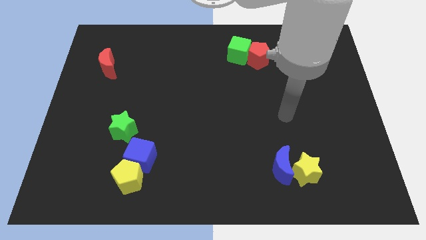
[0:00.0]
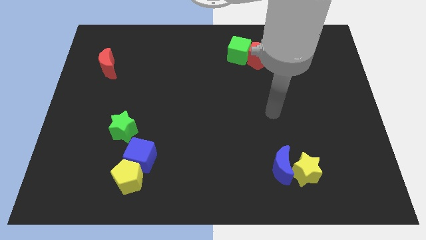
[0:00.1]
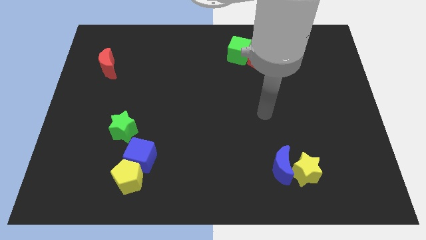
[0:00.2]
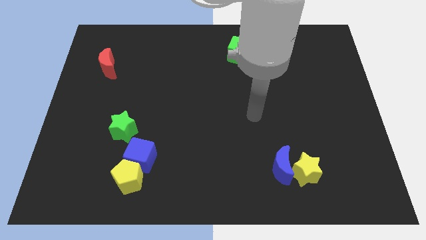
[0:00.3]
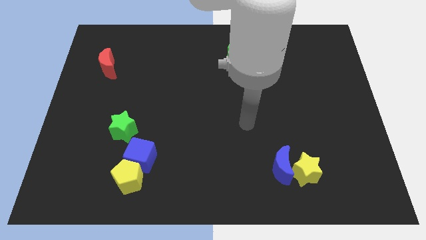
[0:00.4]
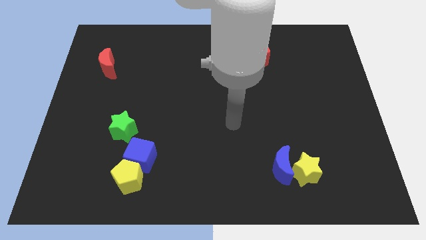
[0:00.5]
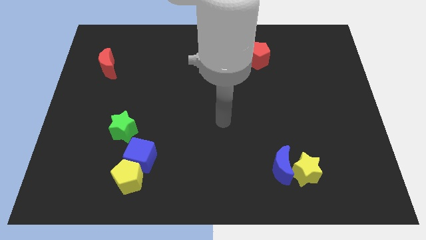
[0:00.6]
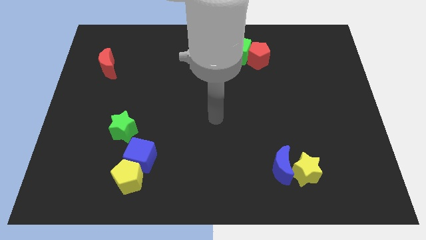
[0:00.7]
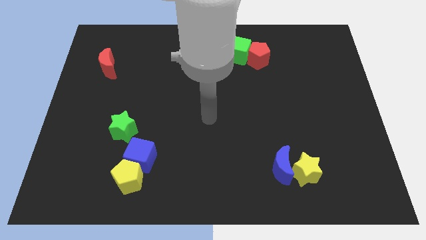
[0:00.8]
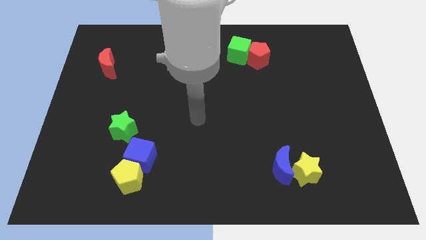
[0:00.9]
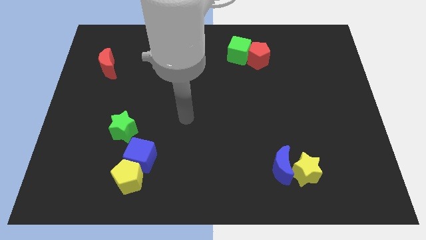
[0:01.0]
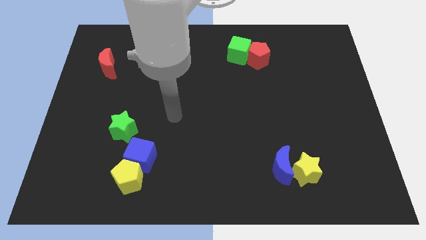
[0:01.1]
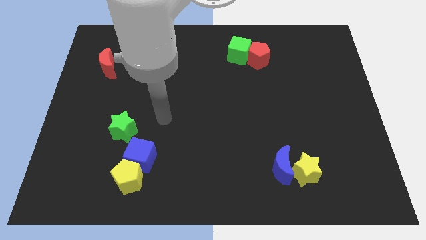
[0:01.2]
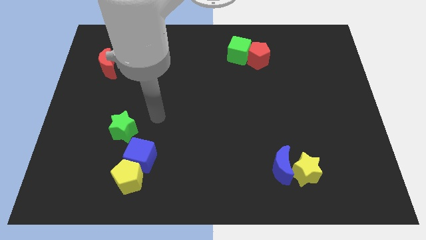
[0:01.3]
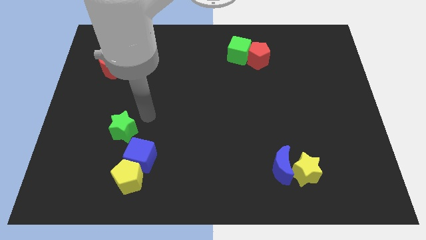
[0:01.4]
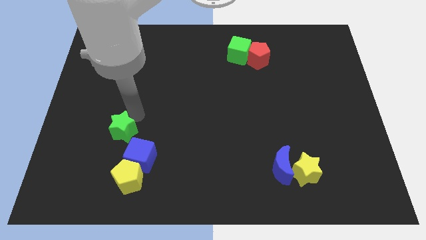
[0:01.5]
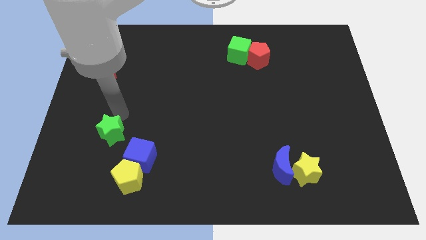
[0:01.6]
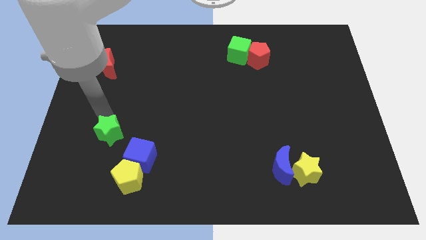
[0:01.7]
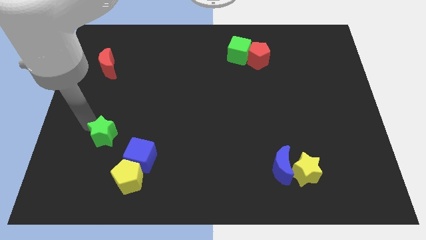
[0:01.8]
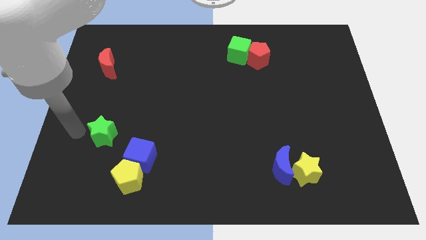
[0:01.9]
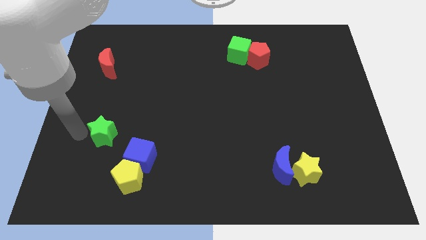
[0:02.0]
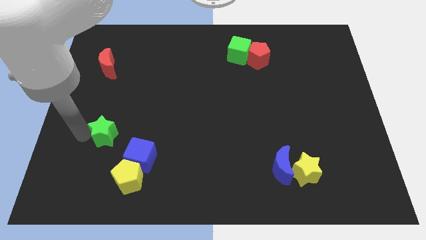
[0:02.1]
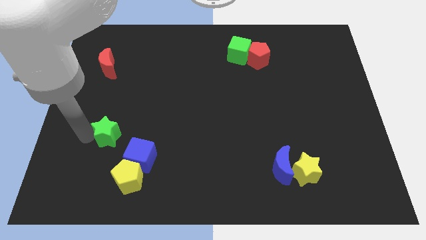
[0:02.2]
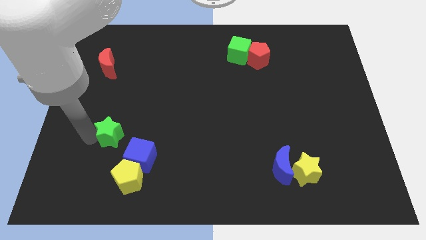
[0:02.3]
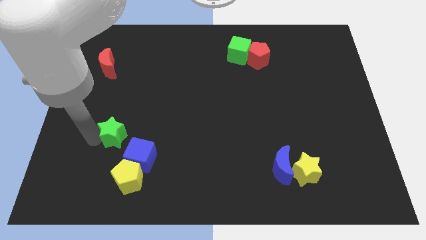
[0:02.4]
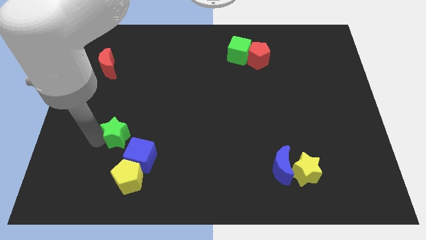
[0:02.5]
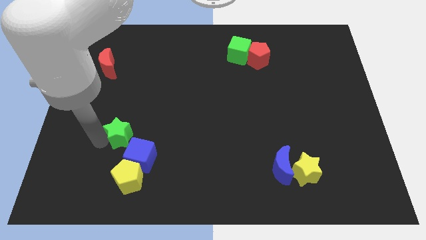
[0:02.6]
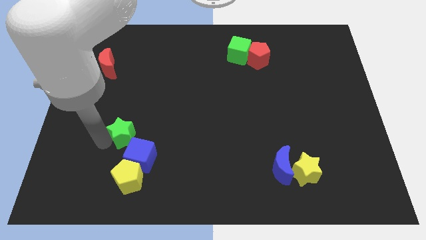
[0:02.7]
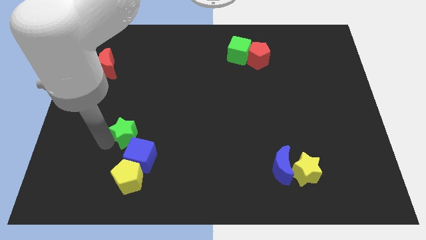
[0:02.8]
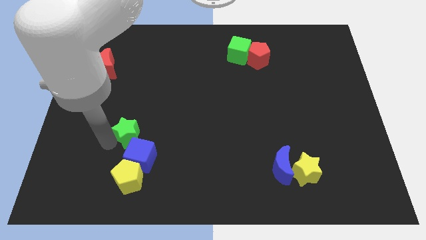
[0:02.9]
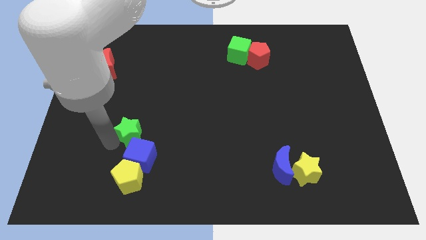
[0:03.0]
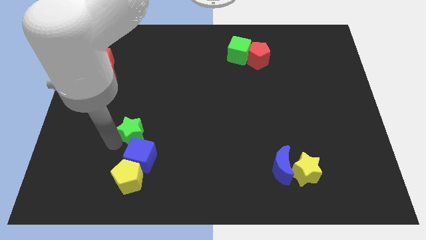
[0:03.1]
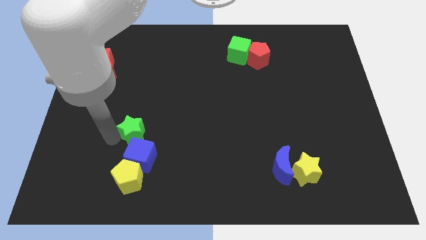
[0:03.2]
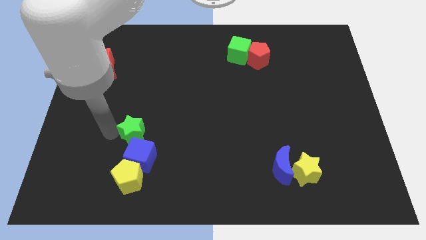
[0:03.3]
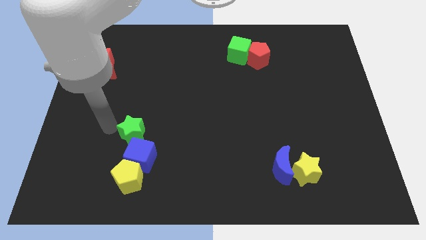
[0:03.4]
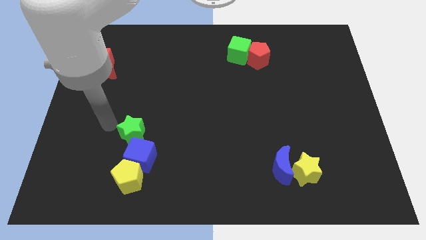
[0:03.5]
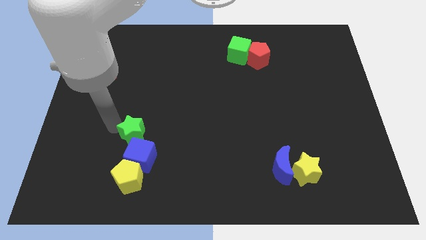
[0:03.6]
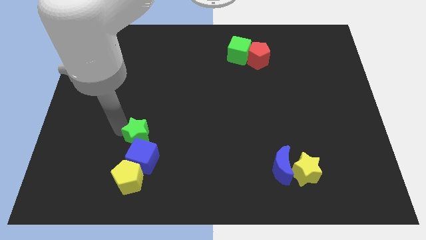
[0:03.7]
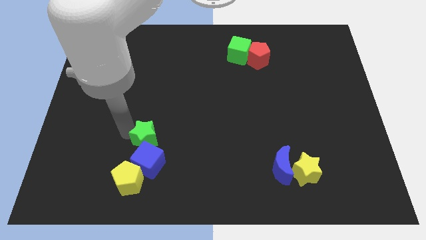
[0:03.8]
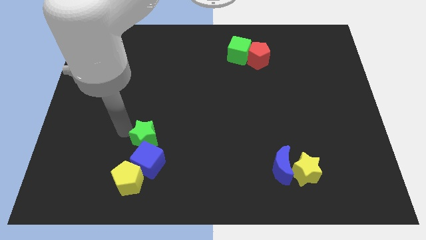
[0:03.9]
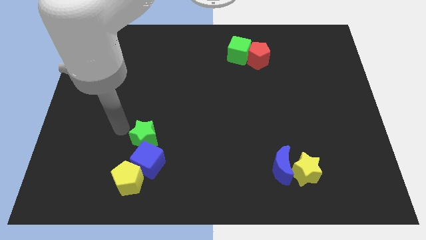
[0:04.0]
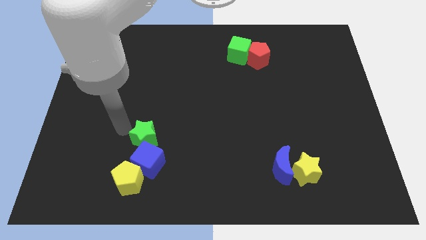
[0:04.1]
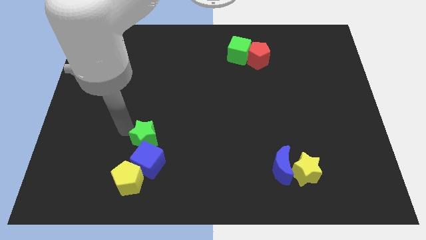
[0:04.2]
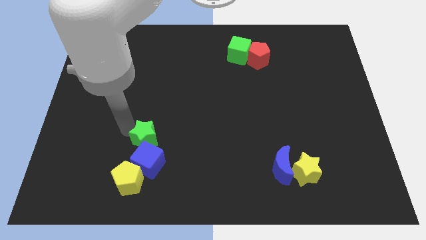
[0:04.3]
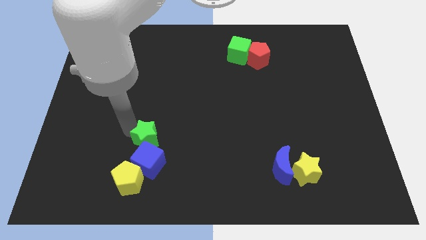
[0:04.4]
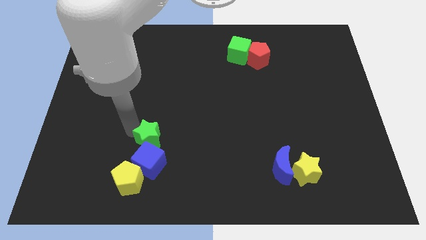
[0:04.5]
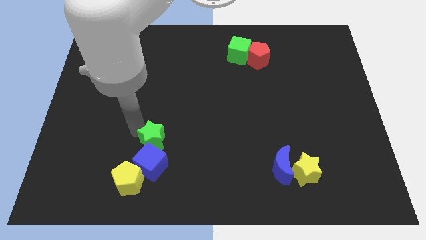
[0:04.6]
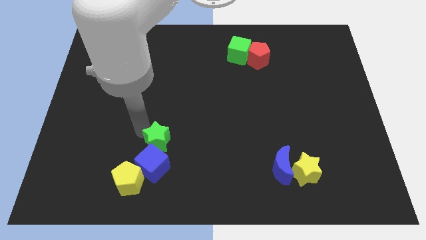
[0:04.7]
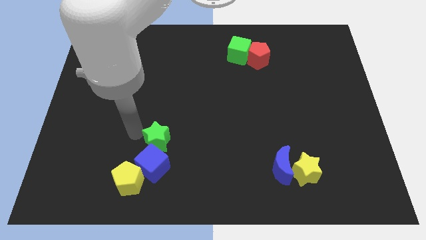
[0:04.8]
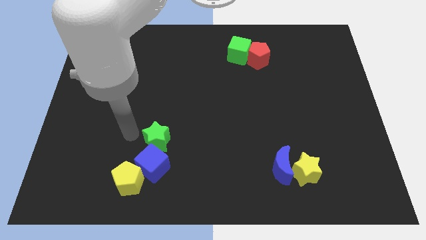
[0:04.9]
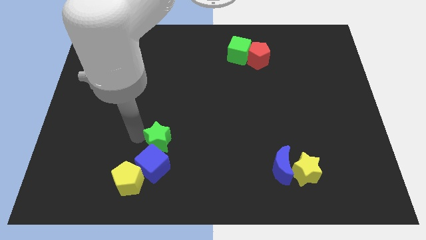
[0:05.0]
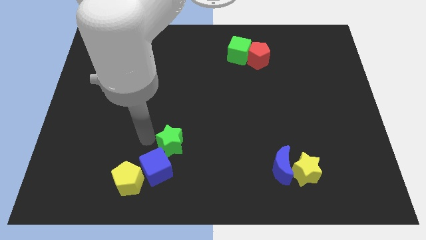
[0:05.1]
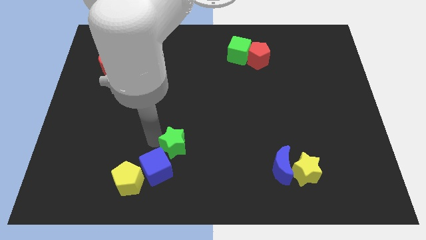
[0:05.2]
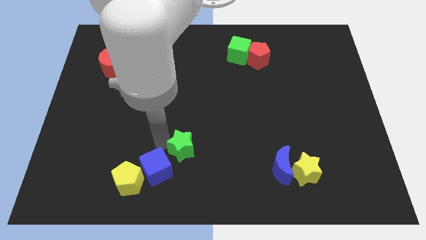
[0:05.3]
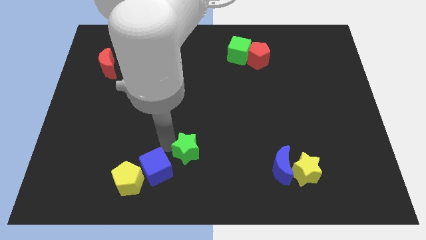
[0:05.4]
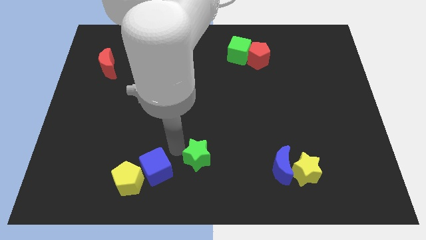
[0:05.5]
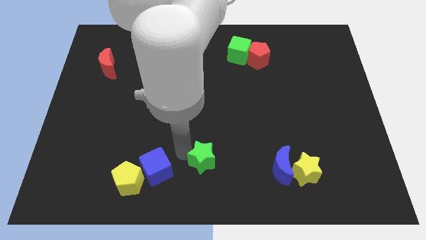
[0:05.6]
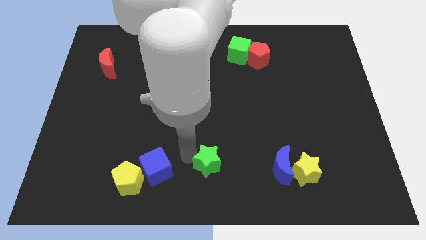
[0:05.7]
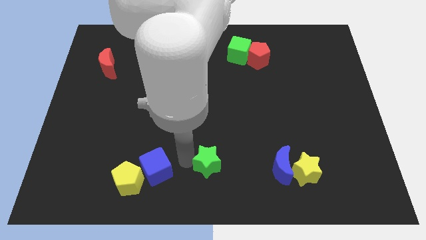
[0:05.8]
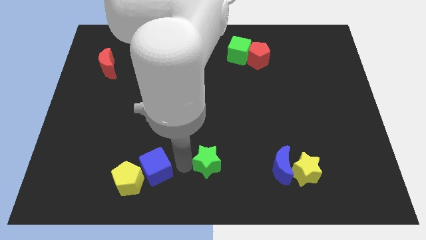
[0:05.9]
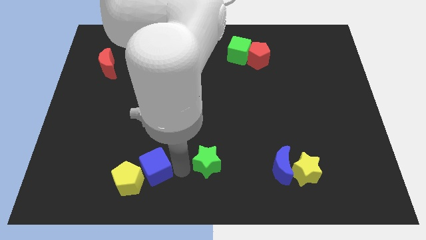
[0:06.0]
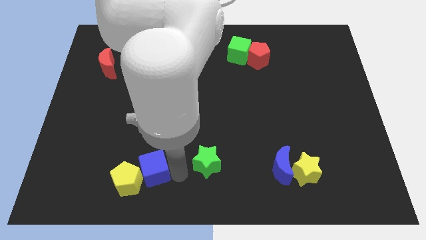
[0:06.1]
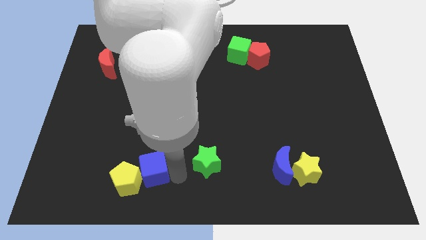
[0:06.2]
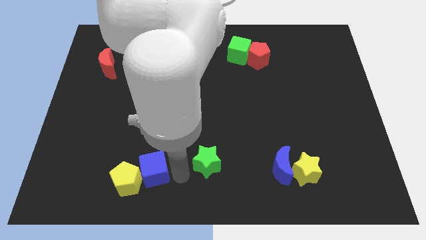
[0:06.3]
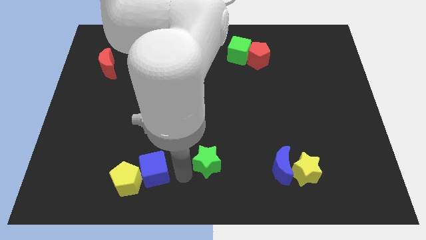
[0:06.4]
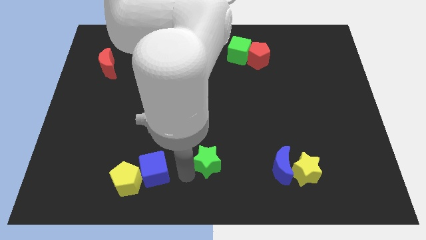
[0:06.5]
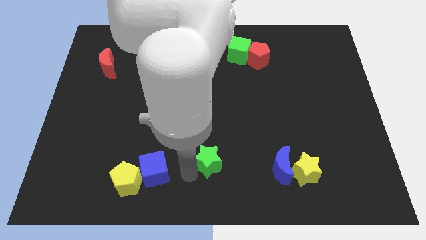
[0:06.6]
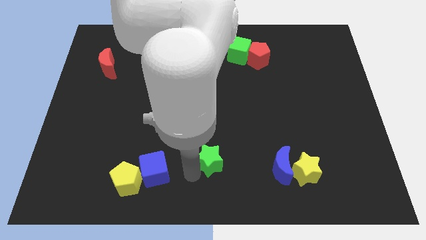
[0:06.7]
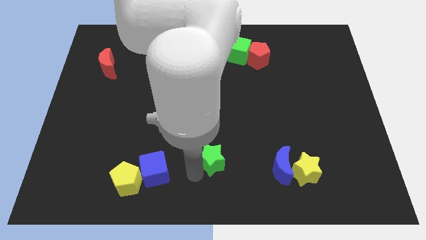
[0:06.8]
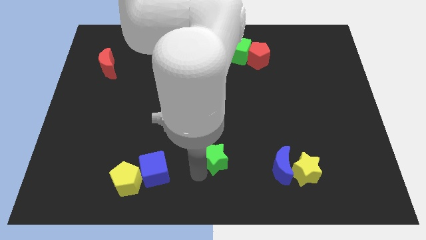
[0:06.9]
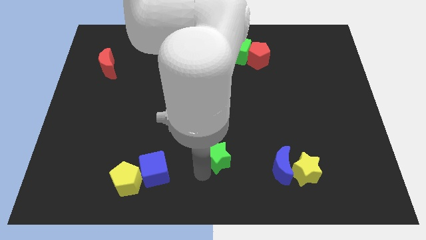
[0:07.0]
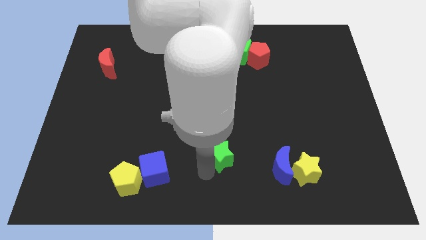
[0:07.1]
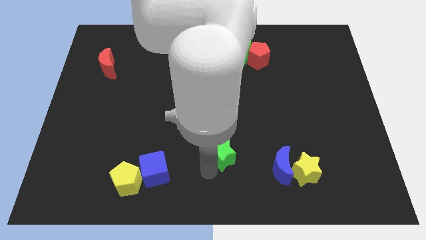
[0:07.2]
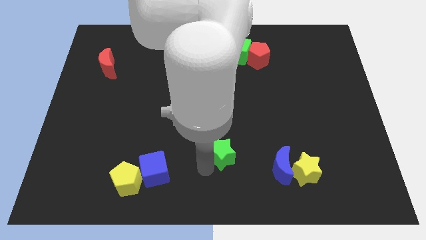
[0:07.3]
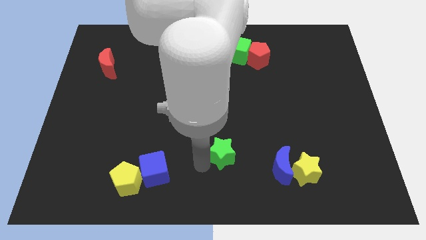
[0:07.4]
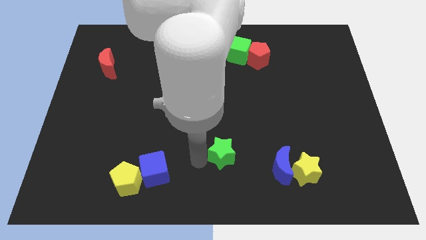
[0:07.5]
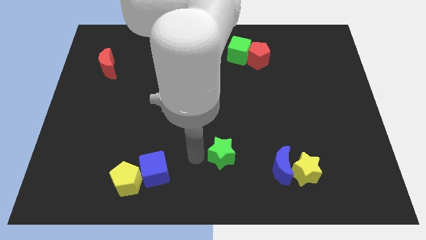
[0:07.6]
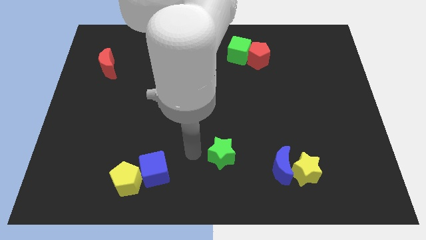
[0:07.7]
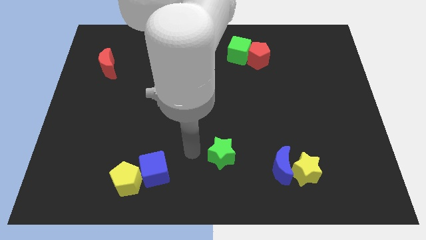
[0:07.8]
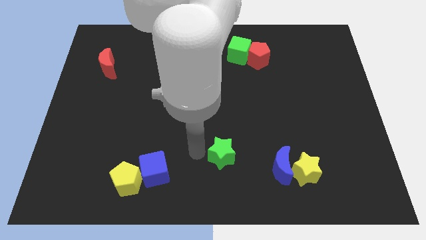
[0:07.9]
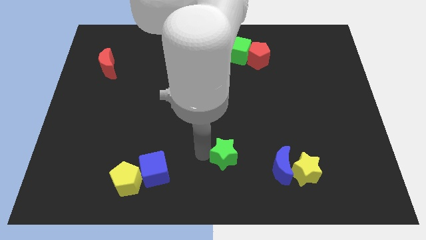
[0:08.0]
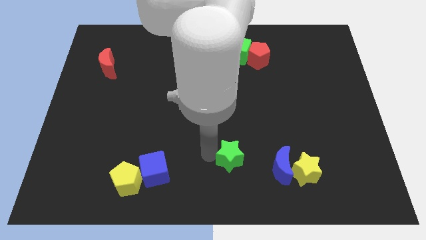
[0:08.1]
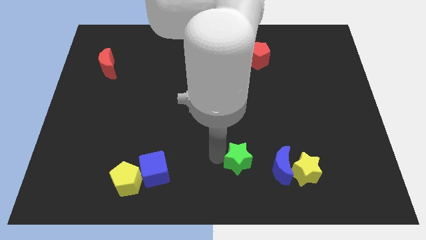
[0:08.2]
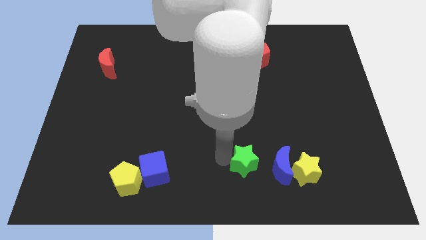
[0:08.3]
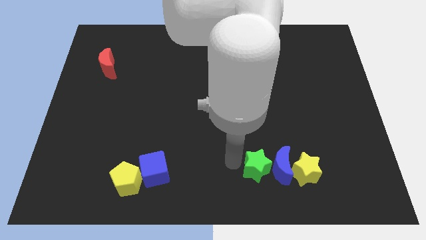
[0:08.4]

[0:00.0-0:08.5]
move the green star to the blue moon
